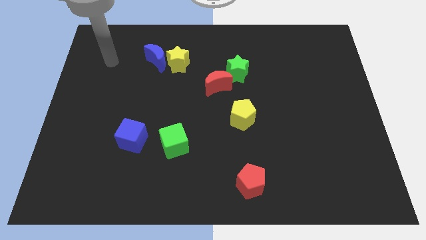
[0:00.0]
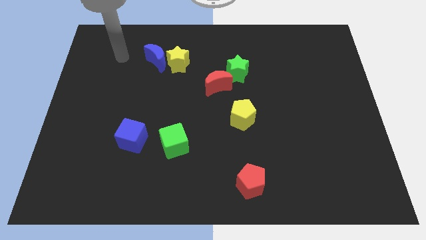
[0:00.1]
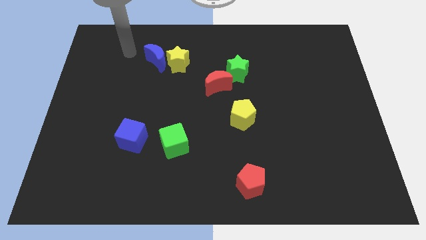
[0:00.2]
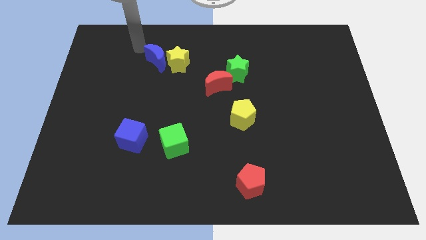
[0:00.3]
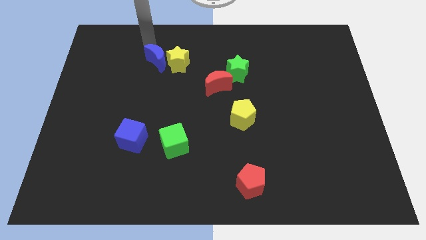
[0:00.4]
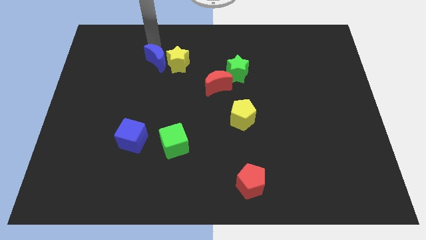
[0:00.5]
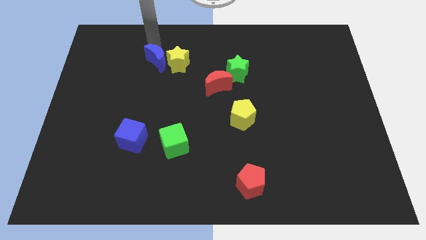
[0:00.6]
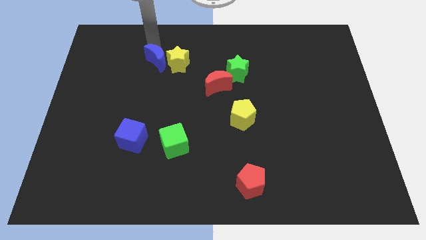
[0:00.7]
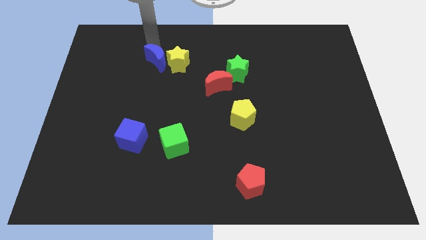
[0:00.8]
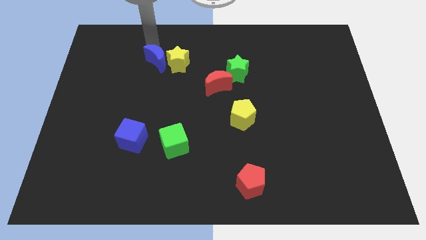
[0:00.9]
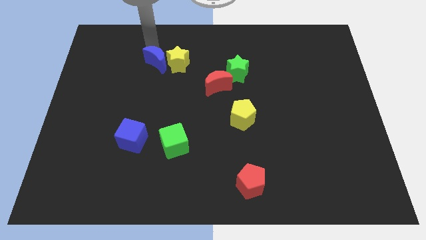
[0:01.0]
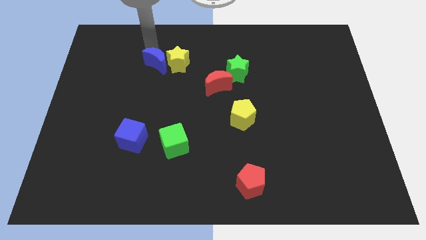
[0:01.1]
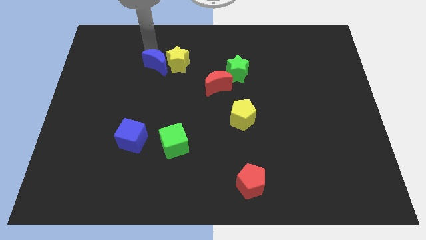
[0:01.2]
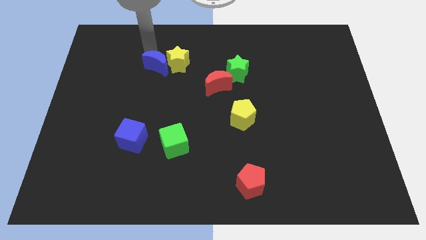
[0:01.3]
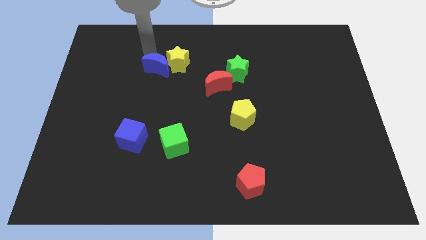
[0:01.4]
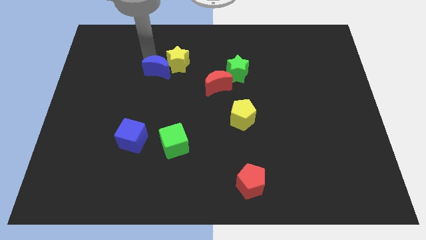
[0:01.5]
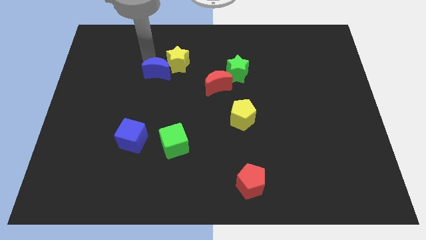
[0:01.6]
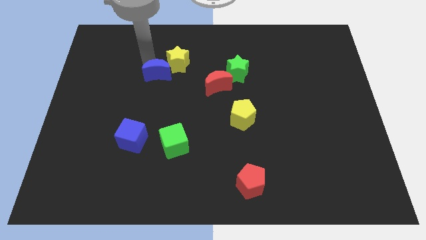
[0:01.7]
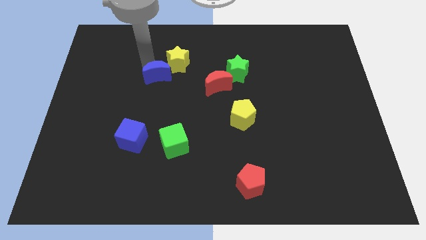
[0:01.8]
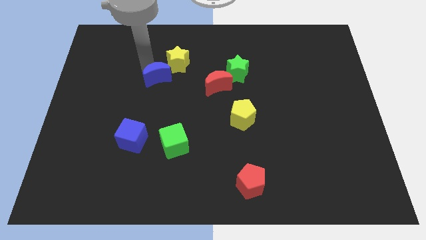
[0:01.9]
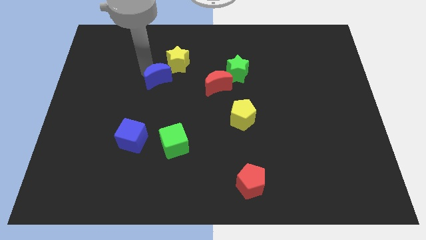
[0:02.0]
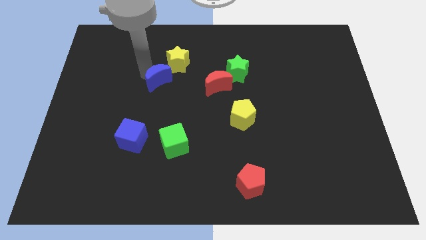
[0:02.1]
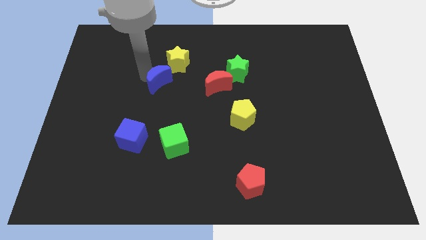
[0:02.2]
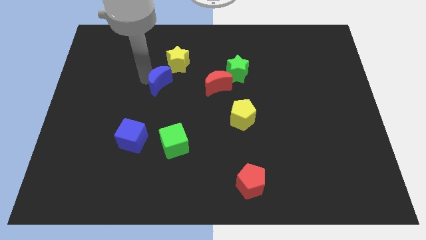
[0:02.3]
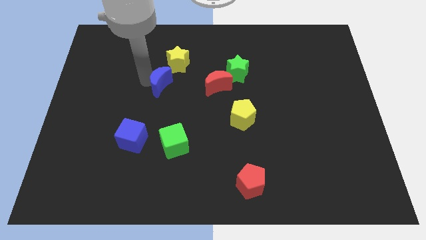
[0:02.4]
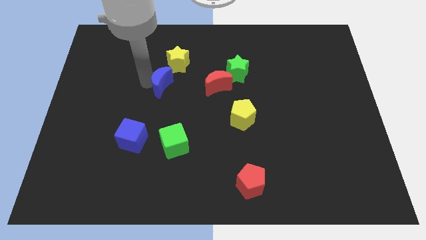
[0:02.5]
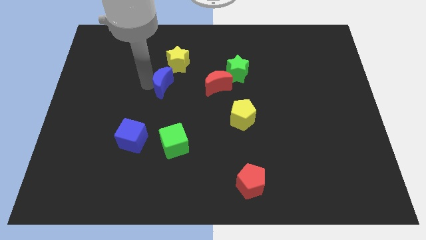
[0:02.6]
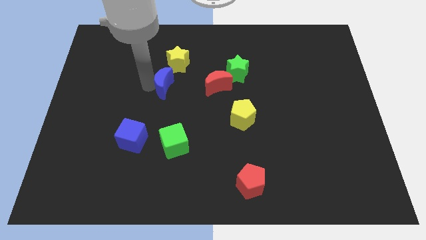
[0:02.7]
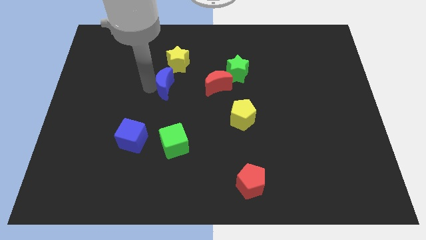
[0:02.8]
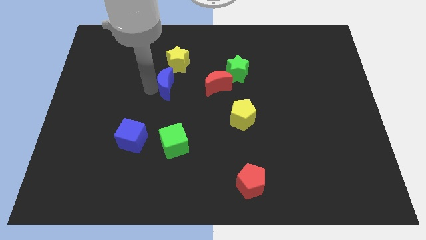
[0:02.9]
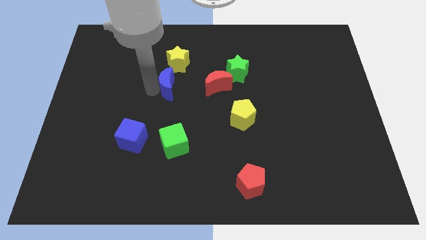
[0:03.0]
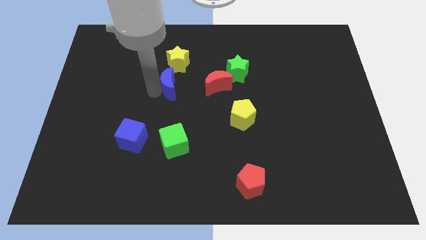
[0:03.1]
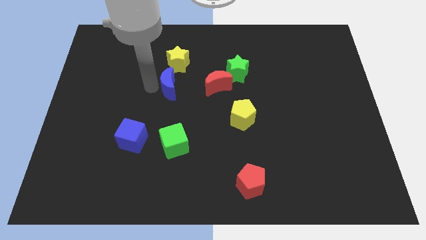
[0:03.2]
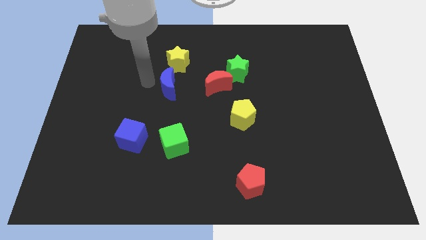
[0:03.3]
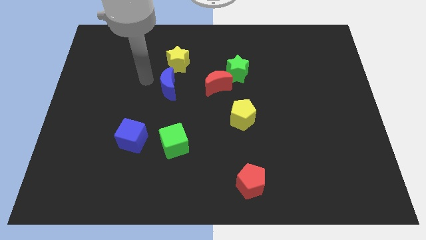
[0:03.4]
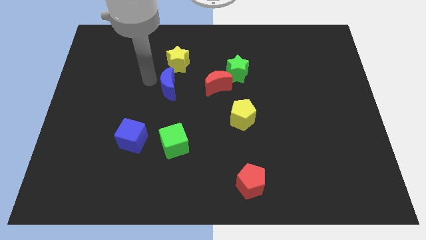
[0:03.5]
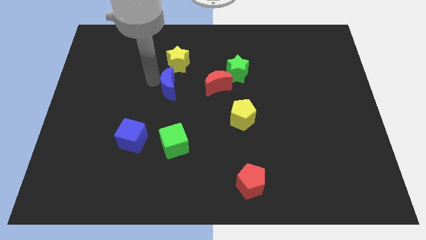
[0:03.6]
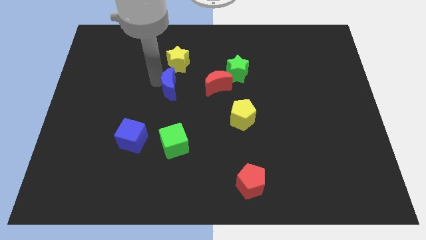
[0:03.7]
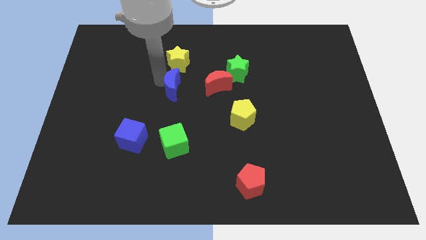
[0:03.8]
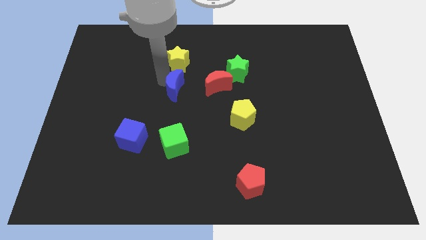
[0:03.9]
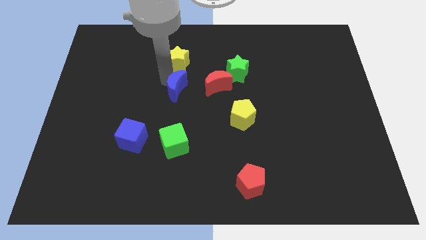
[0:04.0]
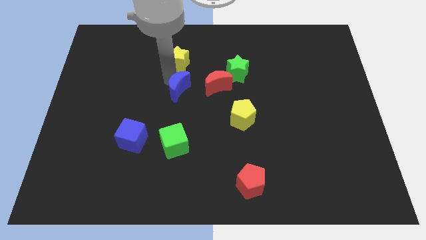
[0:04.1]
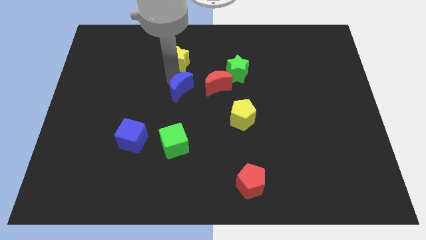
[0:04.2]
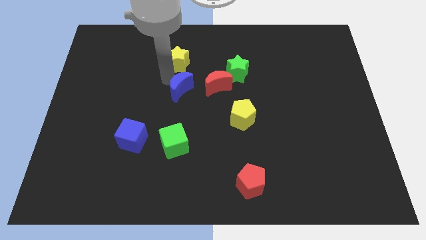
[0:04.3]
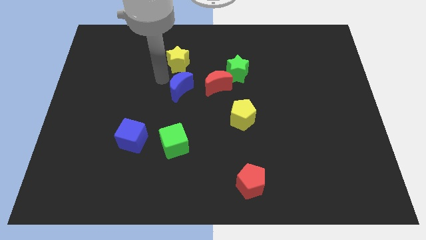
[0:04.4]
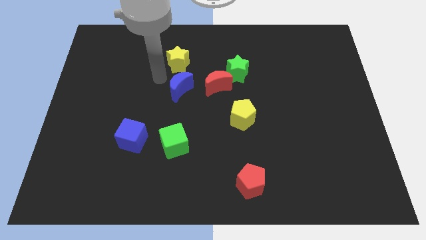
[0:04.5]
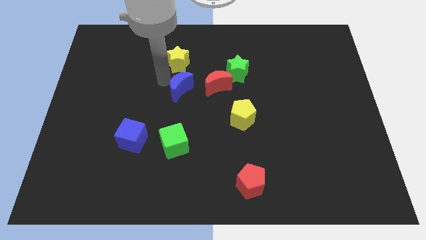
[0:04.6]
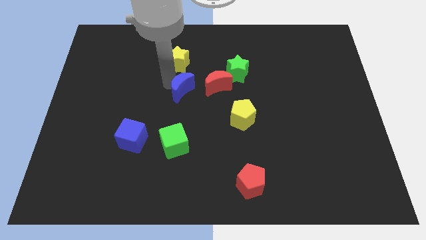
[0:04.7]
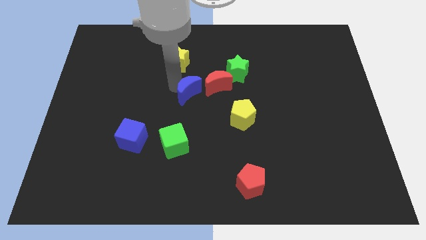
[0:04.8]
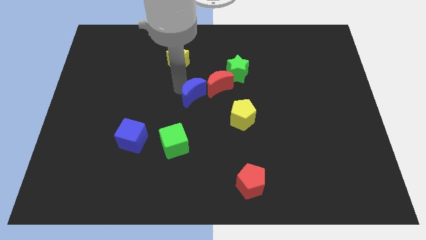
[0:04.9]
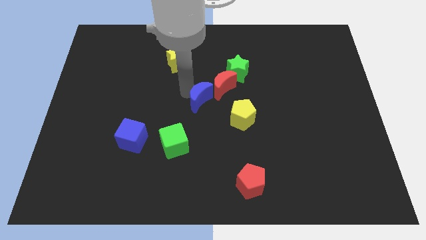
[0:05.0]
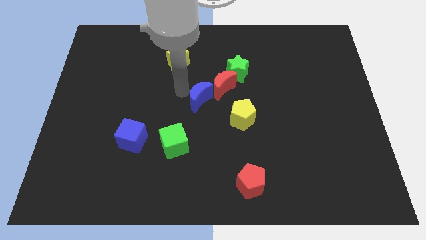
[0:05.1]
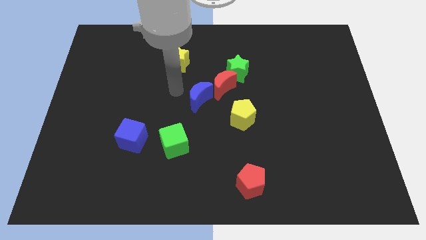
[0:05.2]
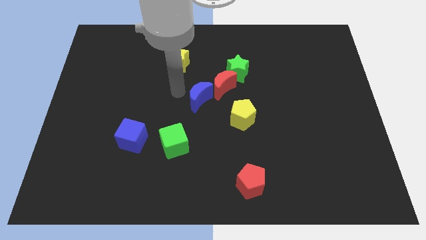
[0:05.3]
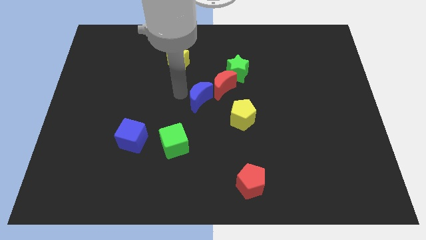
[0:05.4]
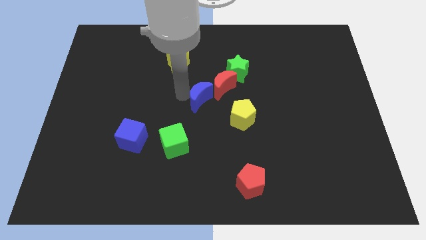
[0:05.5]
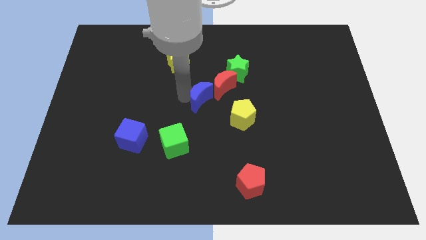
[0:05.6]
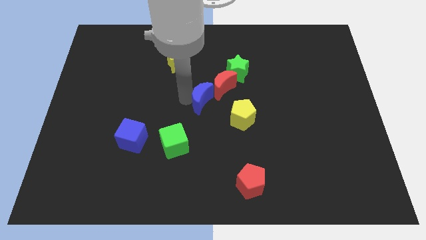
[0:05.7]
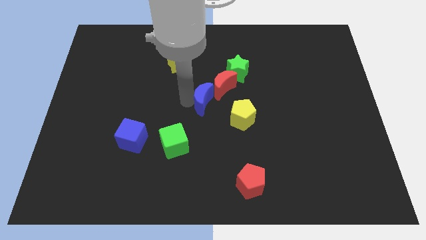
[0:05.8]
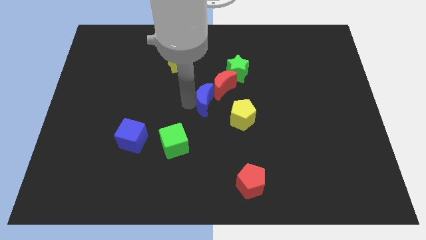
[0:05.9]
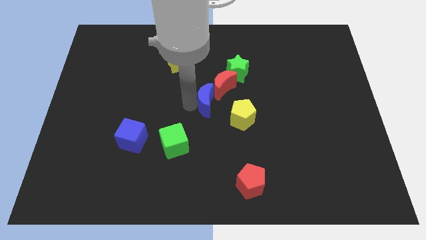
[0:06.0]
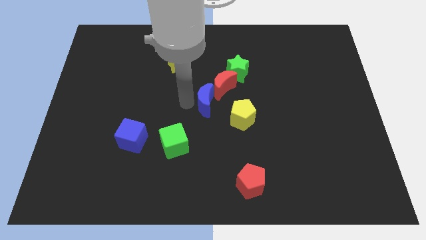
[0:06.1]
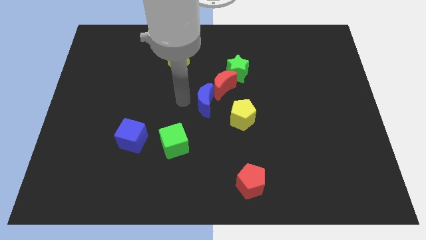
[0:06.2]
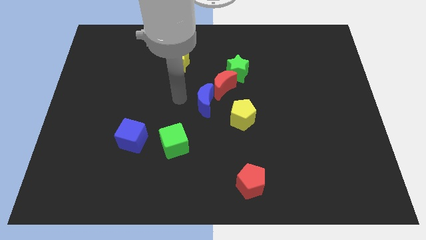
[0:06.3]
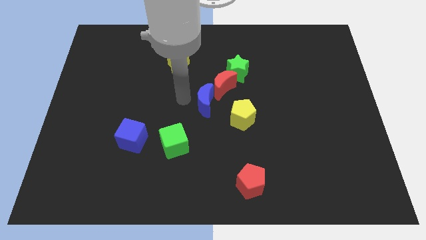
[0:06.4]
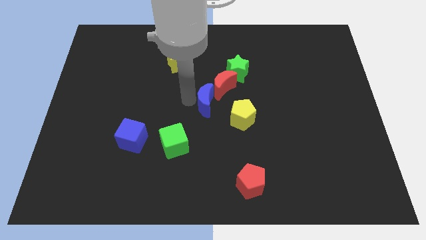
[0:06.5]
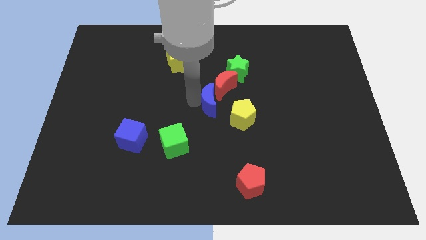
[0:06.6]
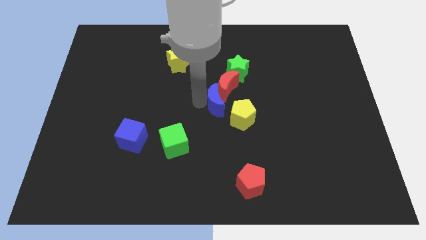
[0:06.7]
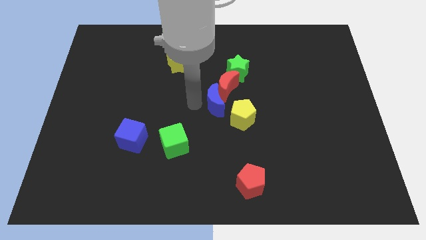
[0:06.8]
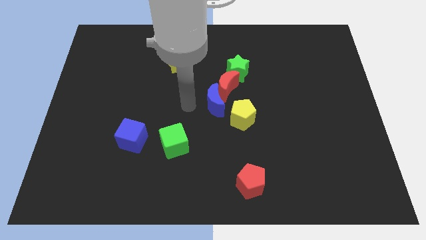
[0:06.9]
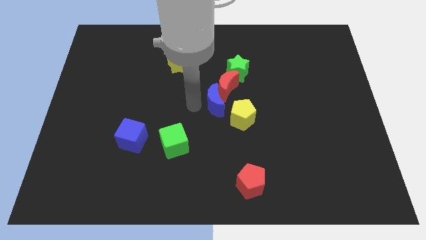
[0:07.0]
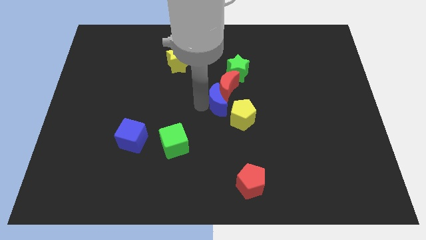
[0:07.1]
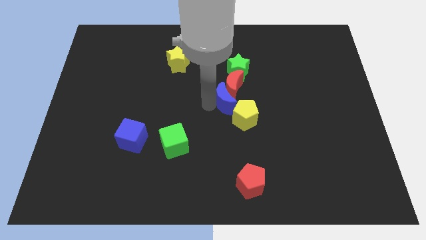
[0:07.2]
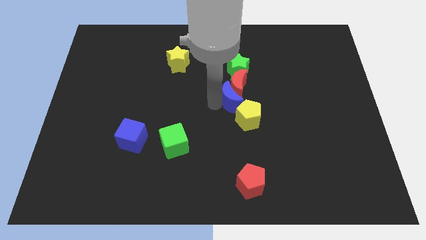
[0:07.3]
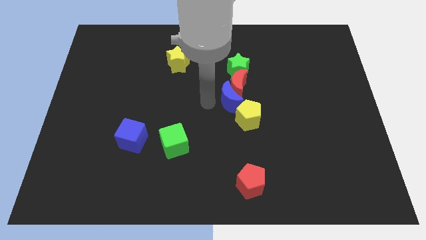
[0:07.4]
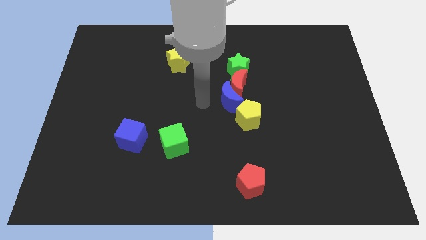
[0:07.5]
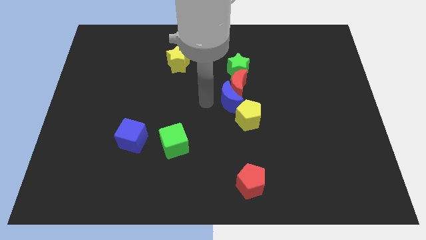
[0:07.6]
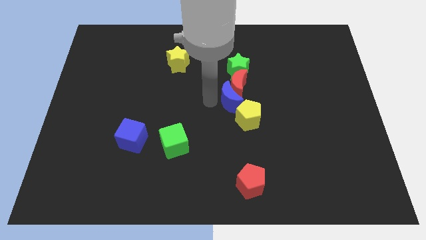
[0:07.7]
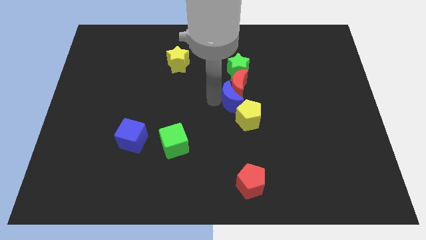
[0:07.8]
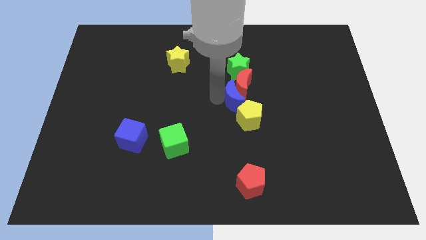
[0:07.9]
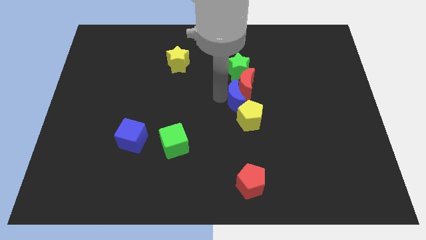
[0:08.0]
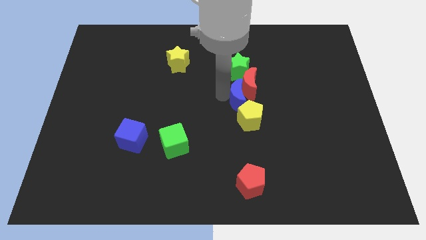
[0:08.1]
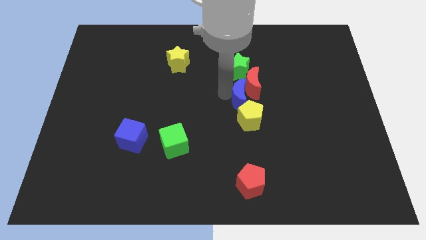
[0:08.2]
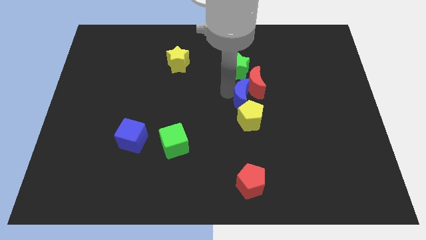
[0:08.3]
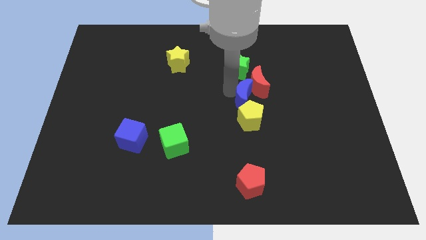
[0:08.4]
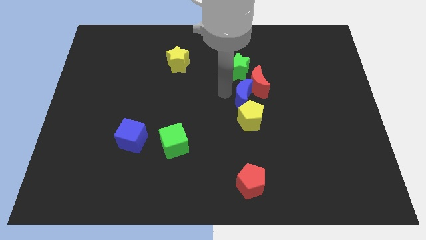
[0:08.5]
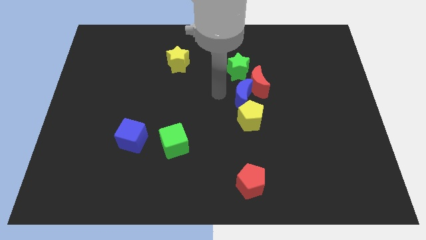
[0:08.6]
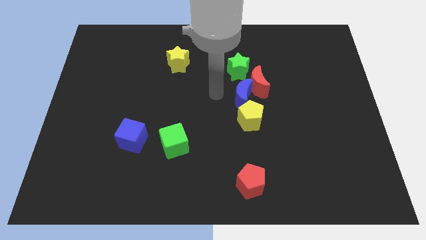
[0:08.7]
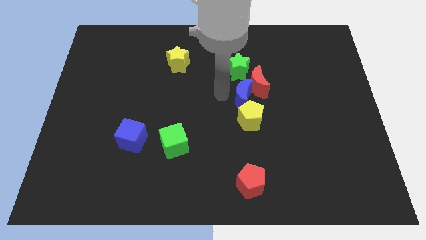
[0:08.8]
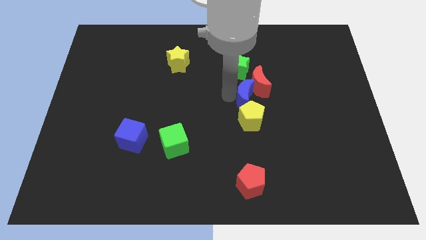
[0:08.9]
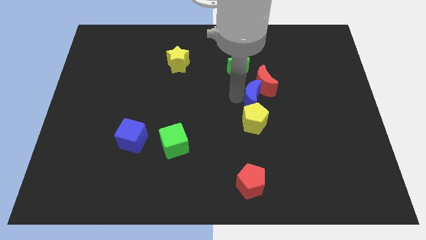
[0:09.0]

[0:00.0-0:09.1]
put the blue moon to the top right of the yellow pentagon
